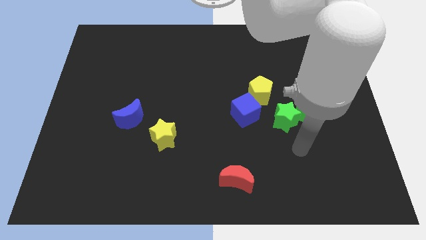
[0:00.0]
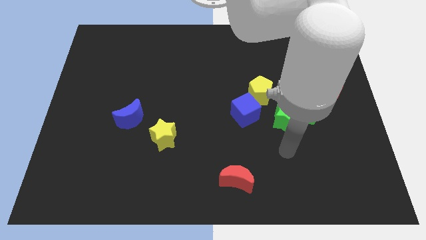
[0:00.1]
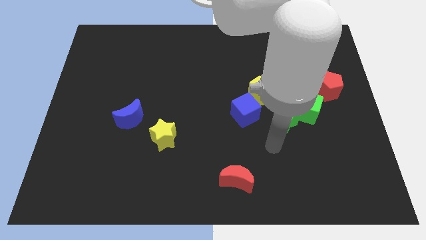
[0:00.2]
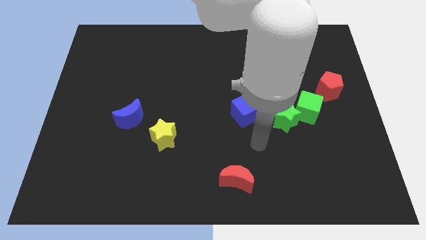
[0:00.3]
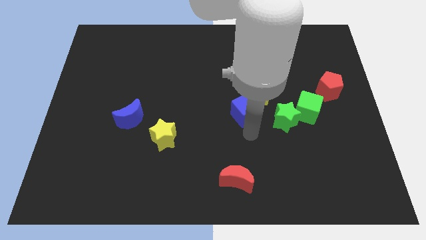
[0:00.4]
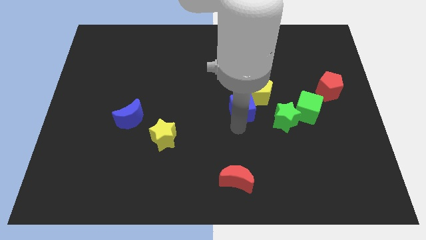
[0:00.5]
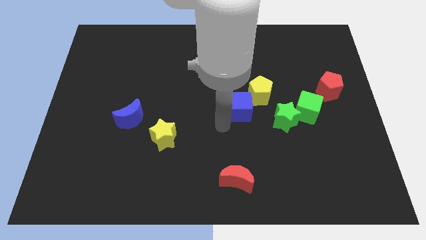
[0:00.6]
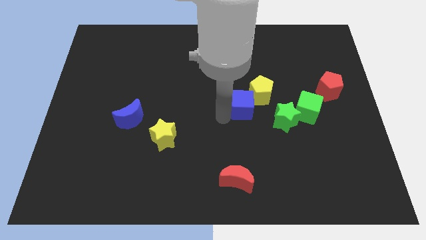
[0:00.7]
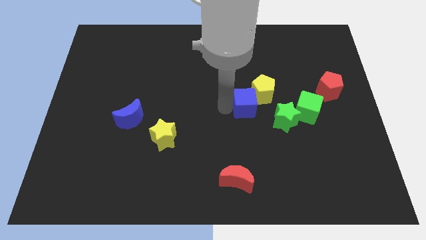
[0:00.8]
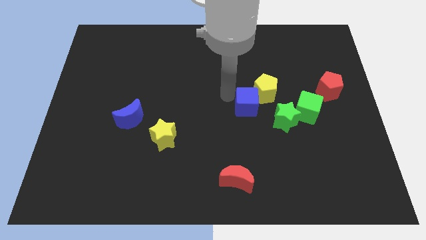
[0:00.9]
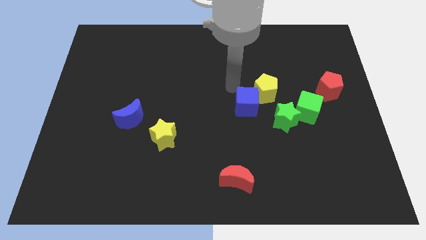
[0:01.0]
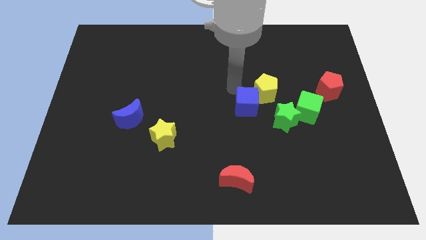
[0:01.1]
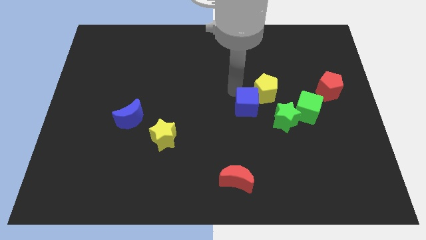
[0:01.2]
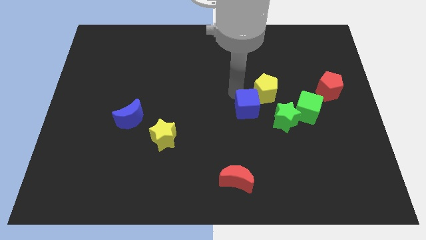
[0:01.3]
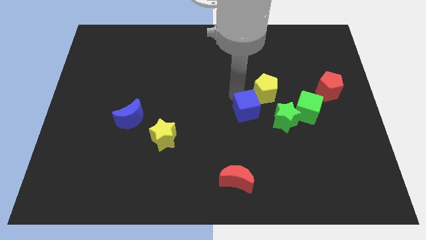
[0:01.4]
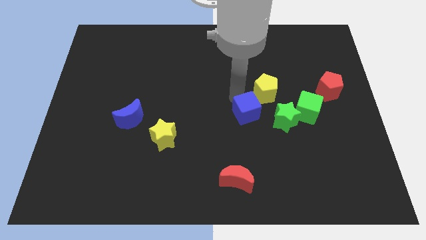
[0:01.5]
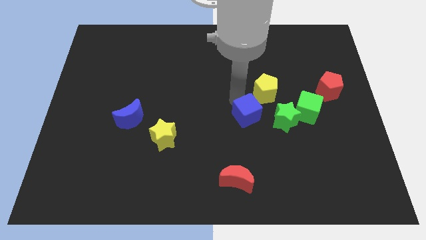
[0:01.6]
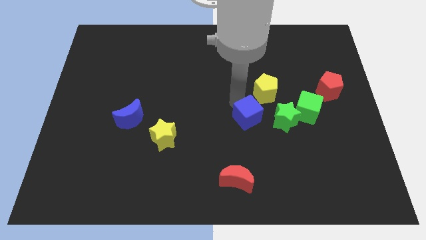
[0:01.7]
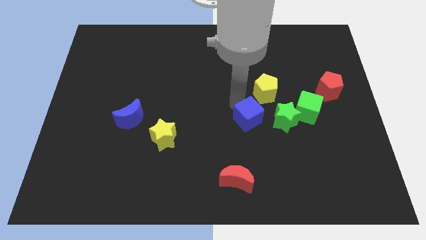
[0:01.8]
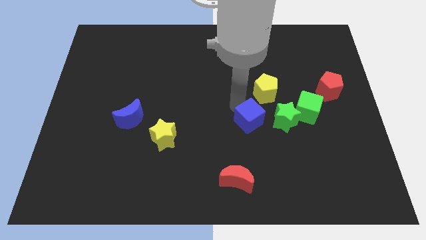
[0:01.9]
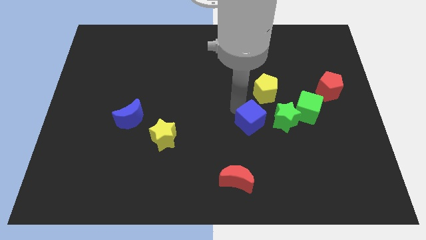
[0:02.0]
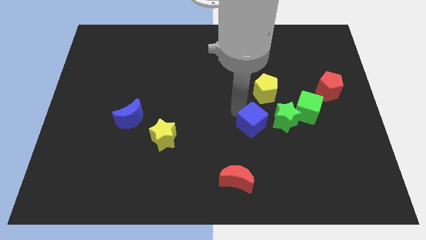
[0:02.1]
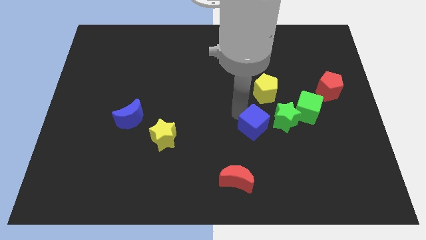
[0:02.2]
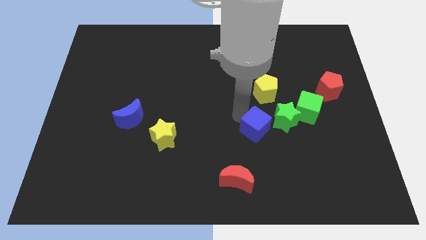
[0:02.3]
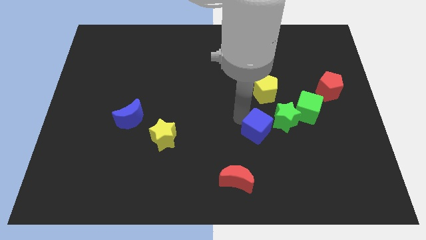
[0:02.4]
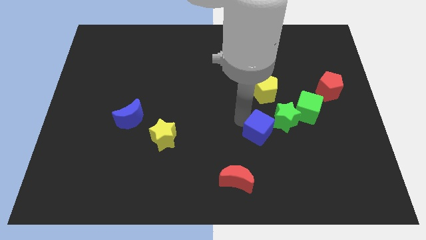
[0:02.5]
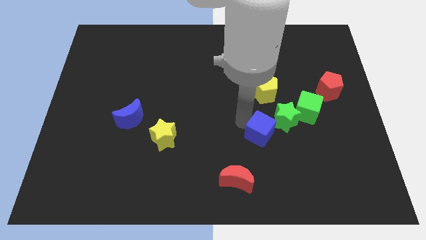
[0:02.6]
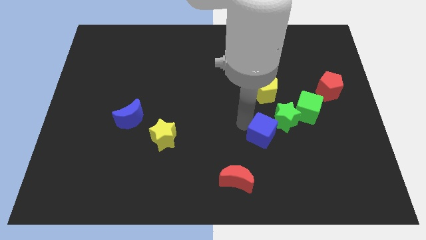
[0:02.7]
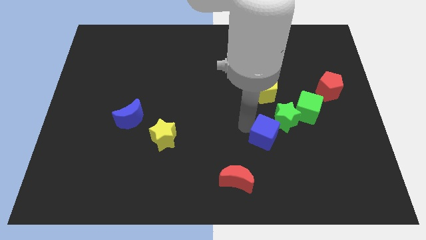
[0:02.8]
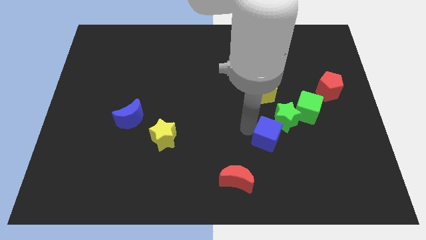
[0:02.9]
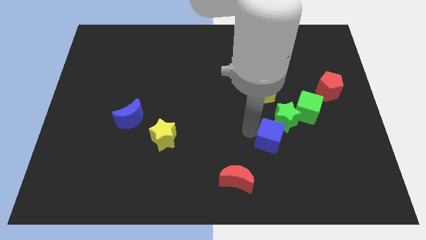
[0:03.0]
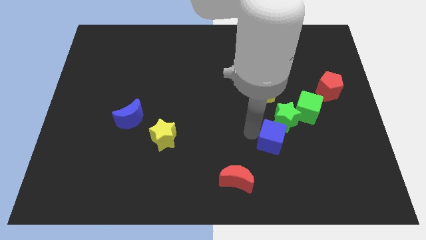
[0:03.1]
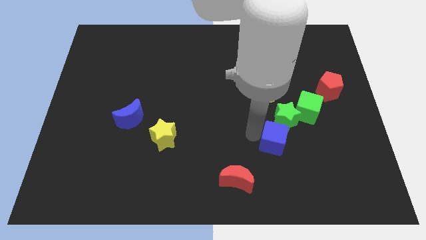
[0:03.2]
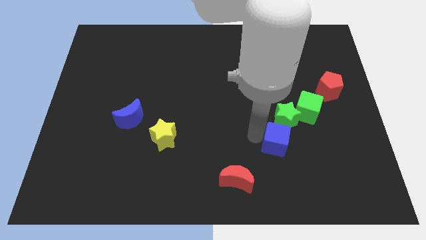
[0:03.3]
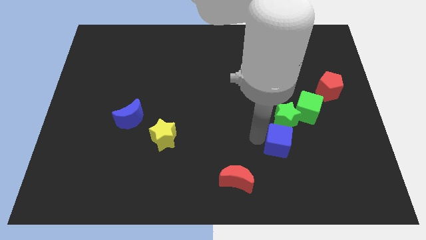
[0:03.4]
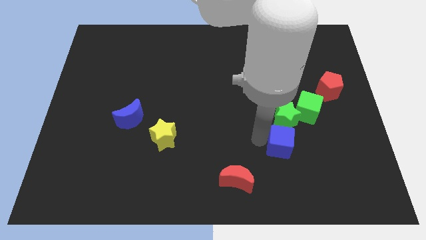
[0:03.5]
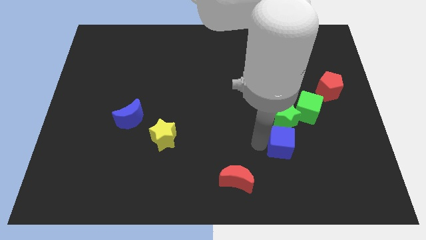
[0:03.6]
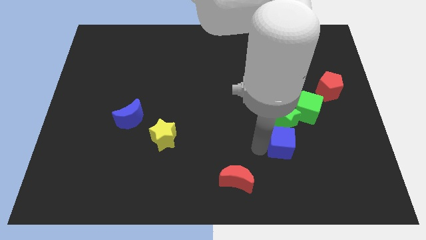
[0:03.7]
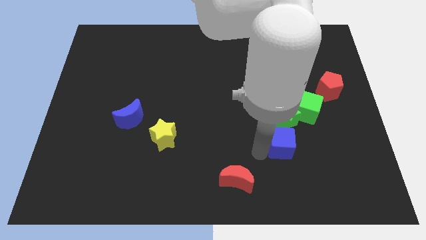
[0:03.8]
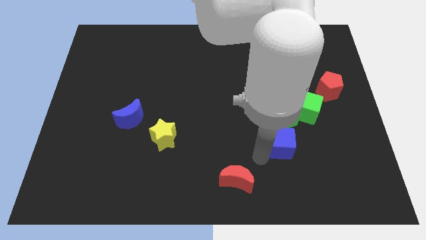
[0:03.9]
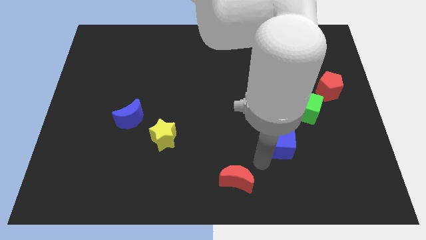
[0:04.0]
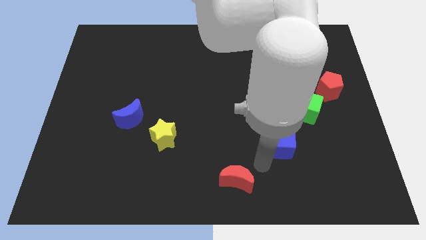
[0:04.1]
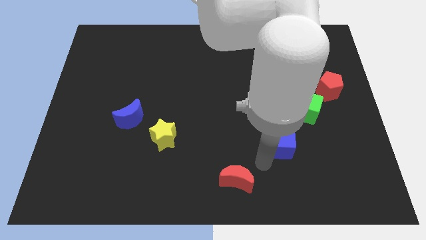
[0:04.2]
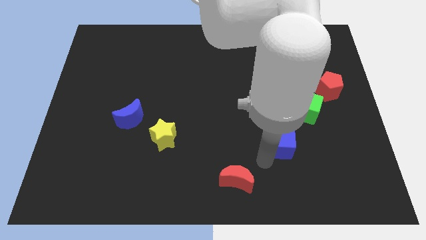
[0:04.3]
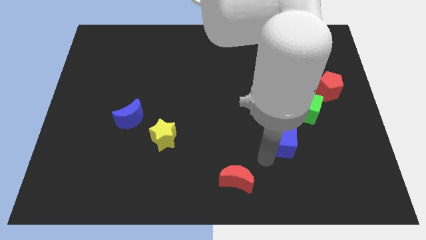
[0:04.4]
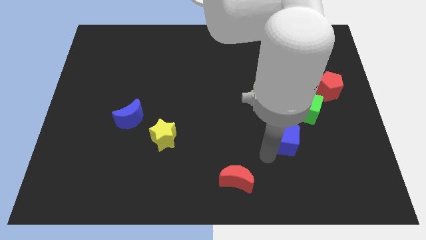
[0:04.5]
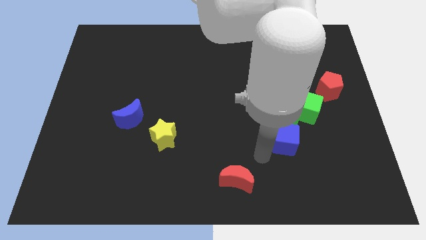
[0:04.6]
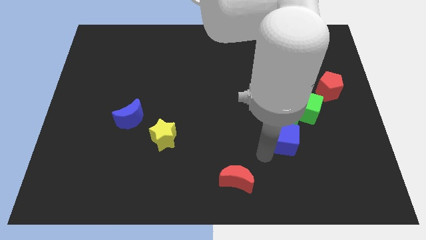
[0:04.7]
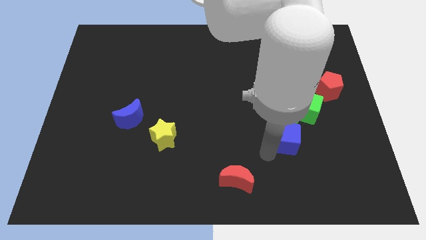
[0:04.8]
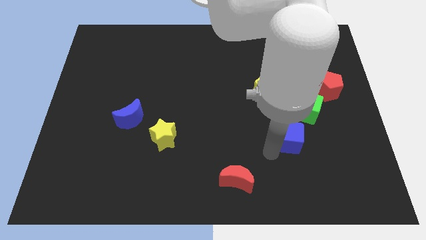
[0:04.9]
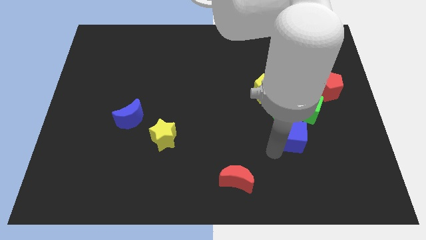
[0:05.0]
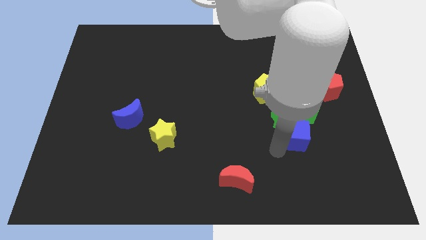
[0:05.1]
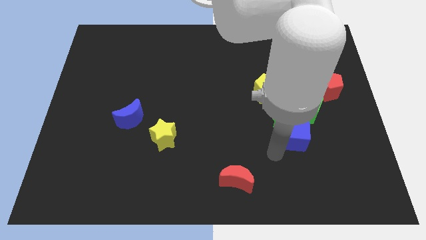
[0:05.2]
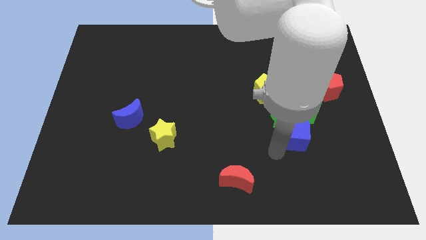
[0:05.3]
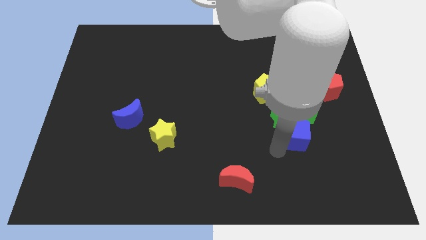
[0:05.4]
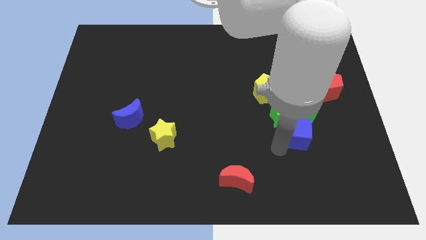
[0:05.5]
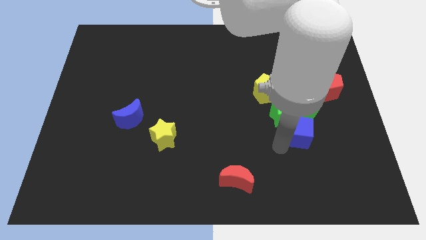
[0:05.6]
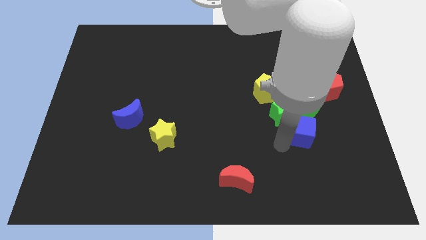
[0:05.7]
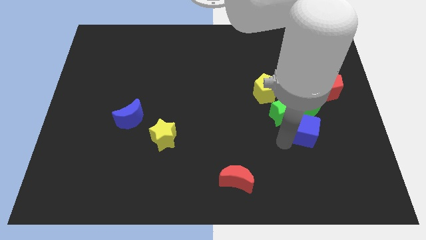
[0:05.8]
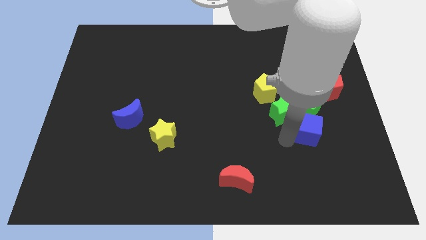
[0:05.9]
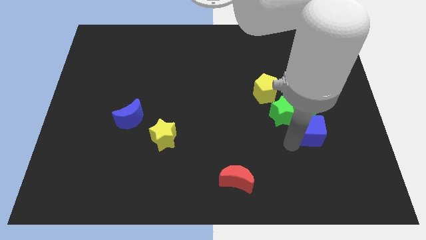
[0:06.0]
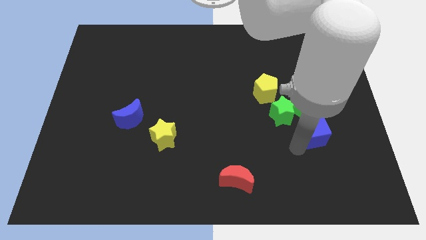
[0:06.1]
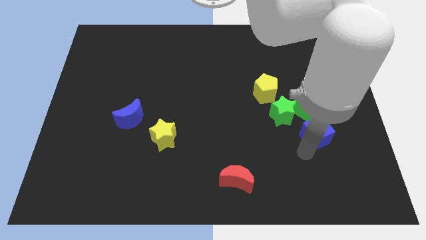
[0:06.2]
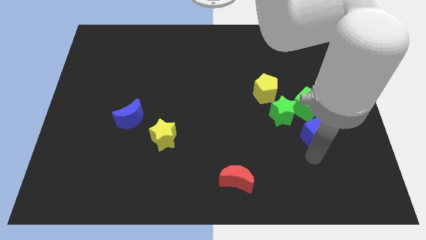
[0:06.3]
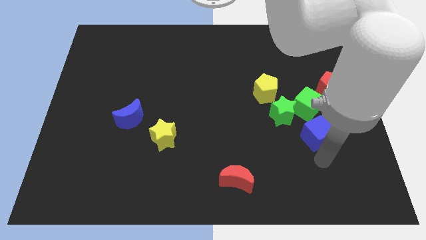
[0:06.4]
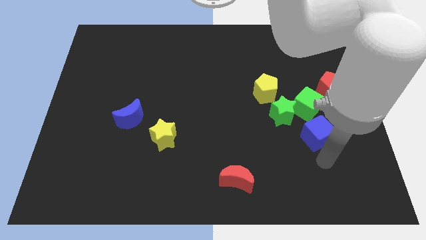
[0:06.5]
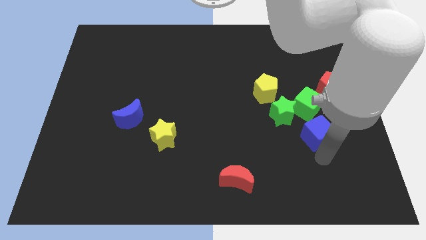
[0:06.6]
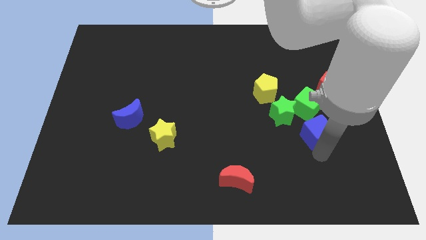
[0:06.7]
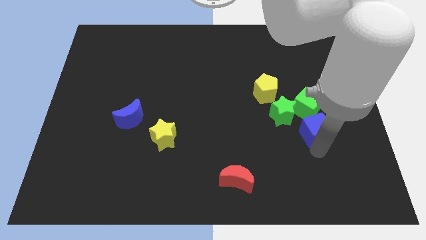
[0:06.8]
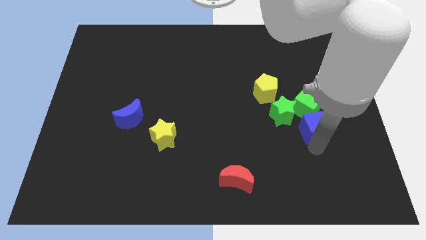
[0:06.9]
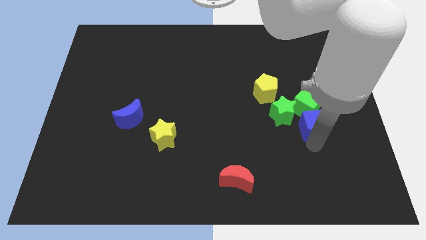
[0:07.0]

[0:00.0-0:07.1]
put the blue cube to the green cube

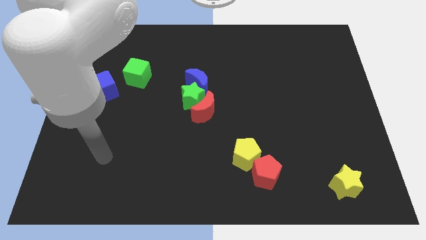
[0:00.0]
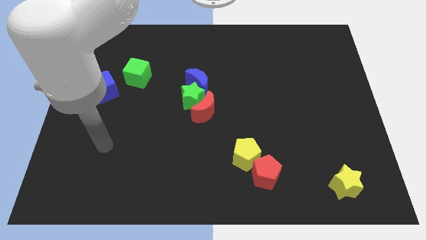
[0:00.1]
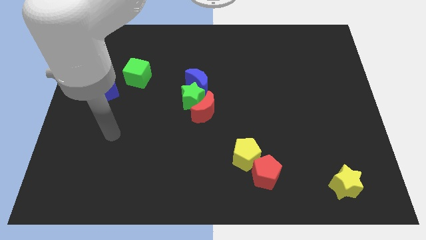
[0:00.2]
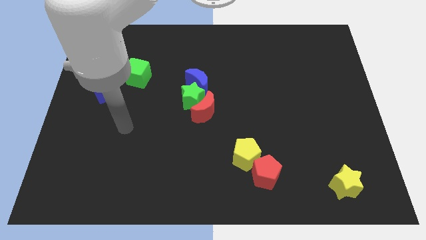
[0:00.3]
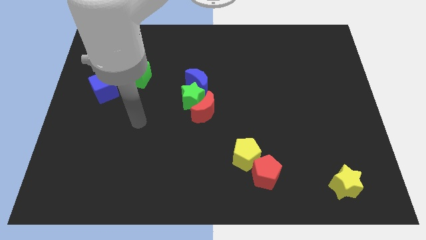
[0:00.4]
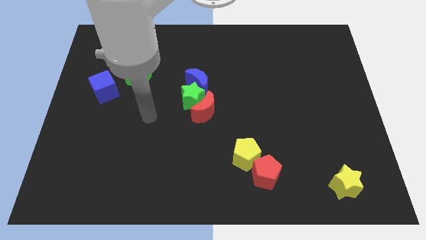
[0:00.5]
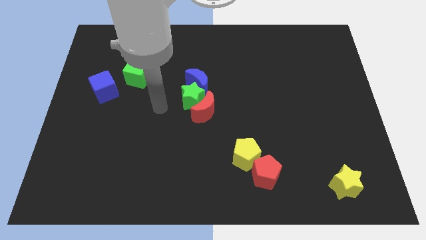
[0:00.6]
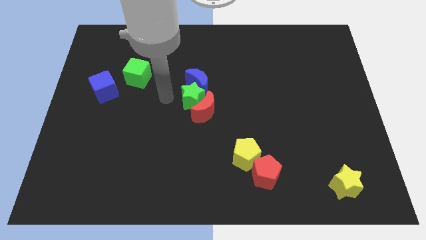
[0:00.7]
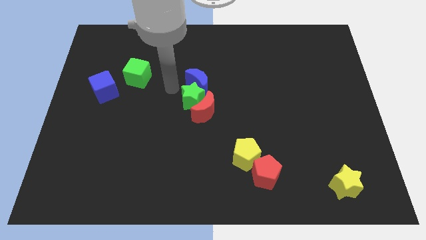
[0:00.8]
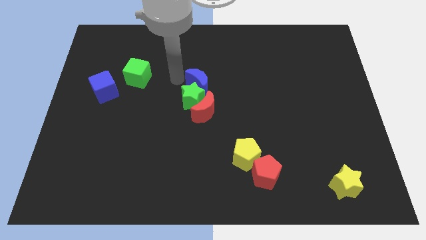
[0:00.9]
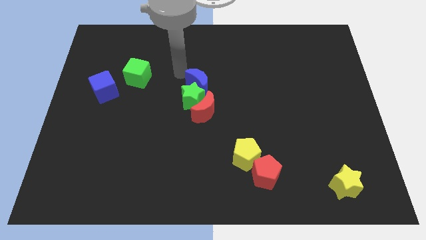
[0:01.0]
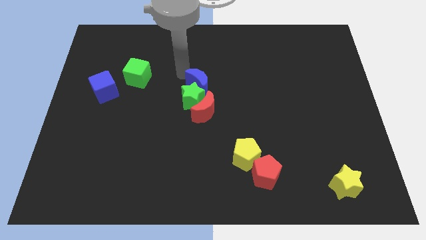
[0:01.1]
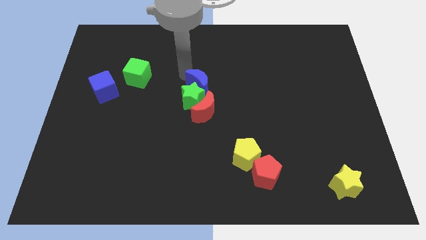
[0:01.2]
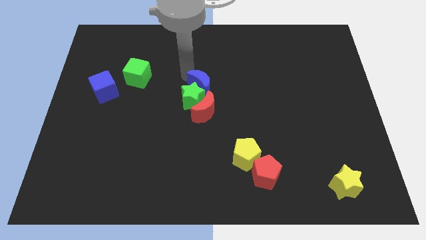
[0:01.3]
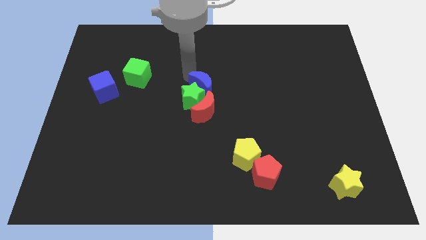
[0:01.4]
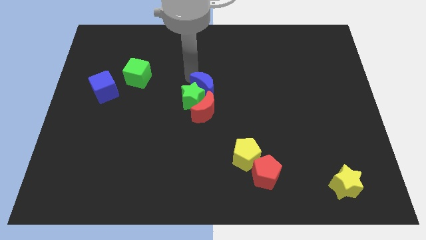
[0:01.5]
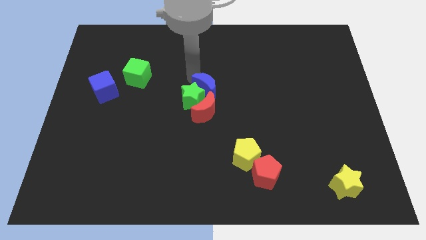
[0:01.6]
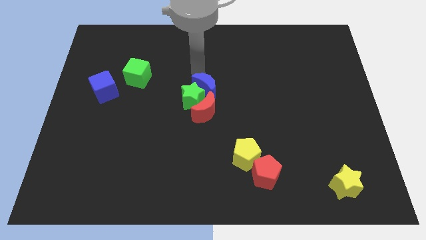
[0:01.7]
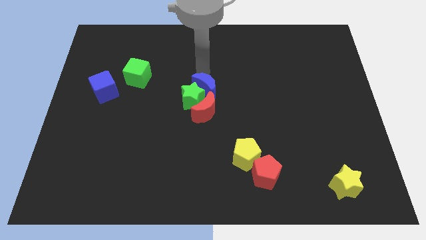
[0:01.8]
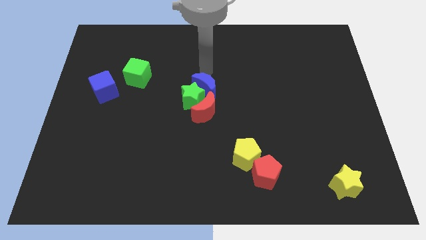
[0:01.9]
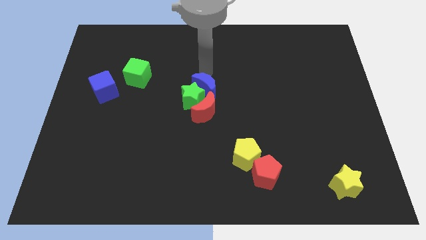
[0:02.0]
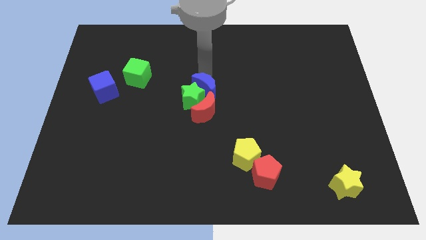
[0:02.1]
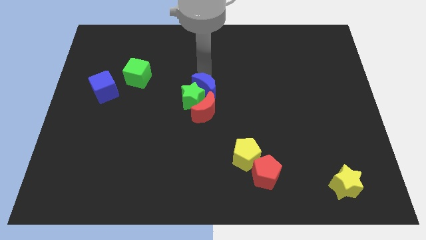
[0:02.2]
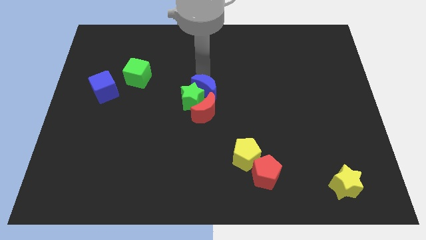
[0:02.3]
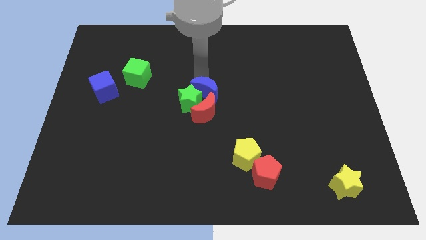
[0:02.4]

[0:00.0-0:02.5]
push the blue moon to the red moon
